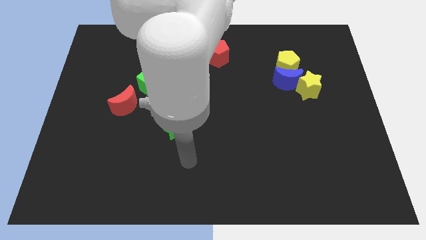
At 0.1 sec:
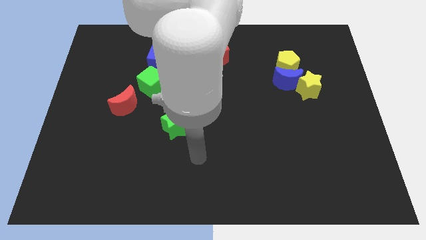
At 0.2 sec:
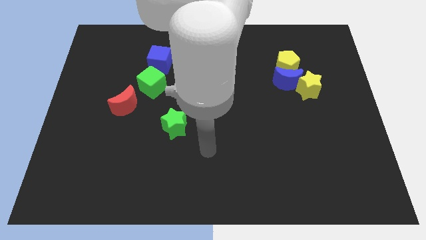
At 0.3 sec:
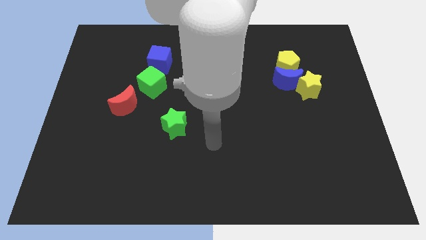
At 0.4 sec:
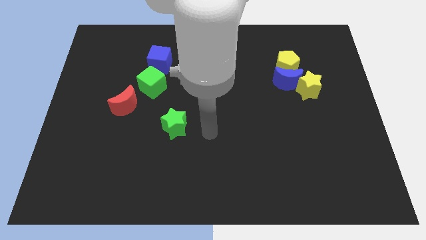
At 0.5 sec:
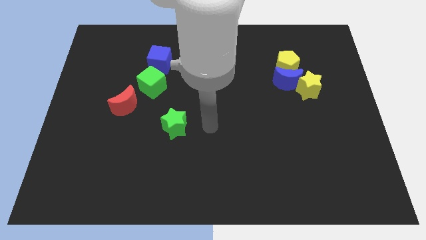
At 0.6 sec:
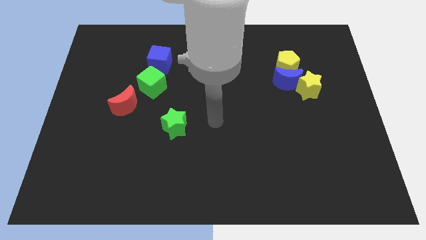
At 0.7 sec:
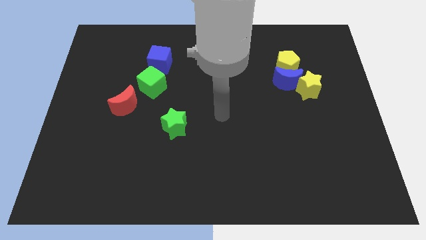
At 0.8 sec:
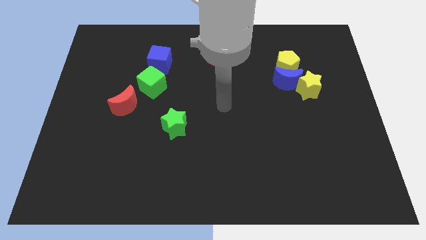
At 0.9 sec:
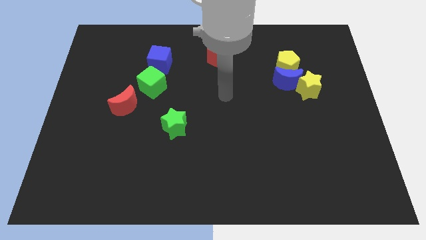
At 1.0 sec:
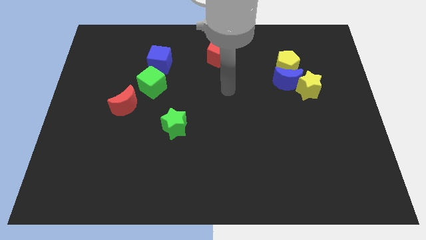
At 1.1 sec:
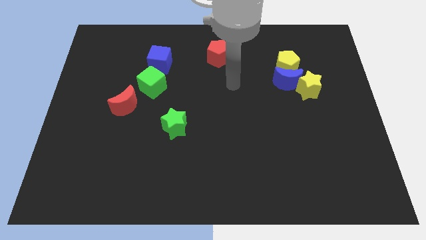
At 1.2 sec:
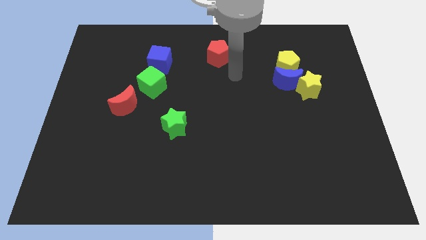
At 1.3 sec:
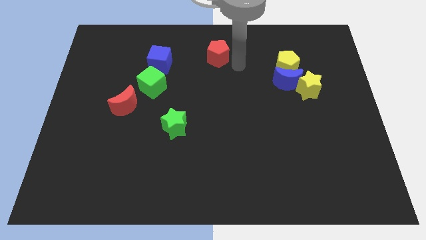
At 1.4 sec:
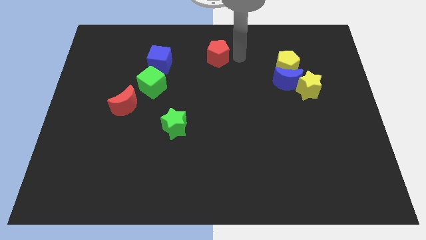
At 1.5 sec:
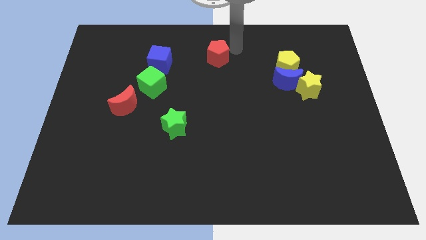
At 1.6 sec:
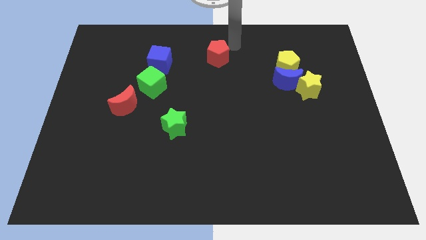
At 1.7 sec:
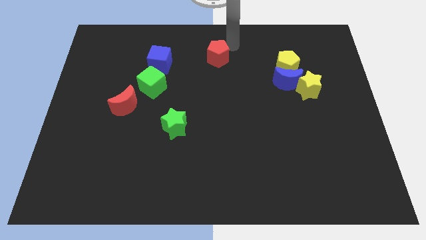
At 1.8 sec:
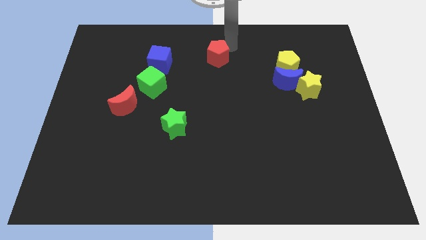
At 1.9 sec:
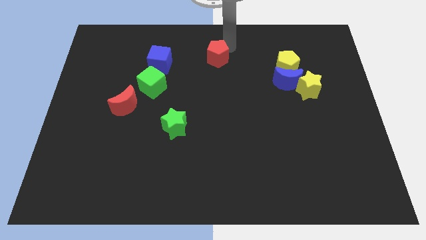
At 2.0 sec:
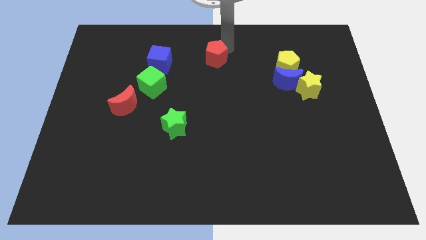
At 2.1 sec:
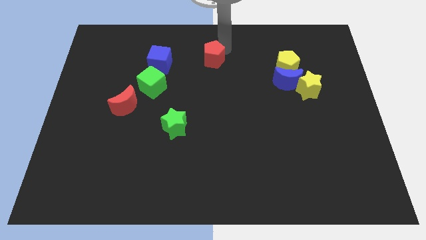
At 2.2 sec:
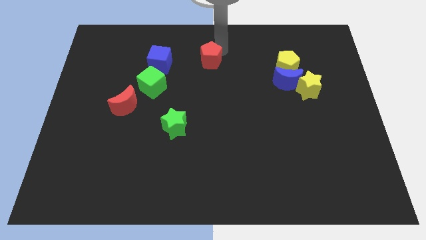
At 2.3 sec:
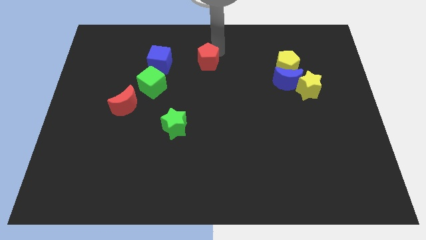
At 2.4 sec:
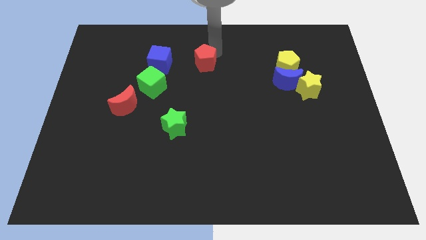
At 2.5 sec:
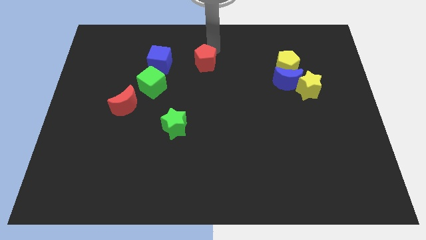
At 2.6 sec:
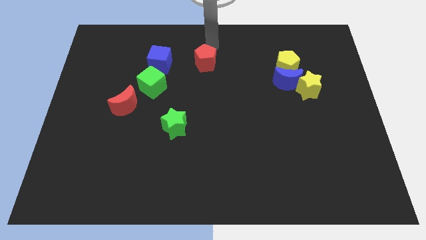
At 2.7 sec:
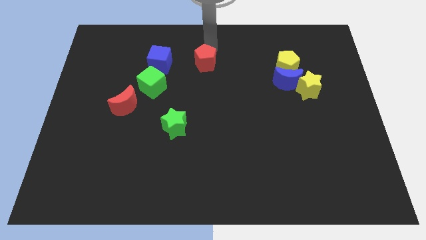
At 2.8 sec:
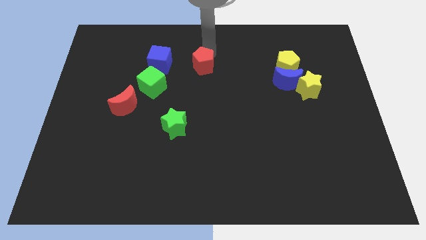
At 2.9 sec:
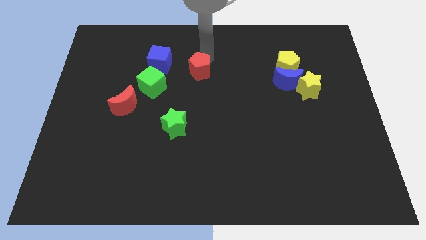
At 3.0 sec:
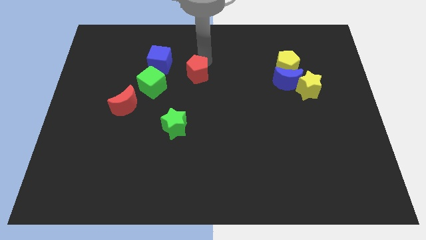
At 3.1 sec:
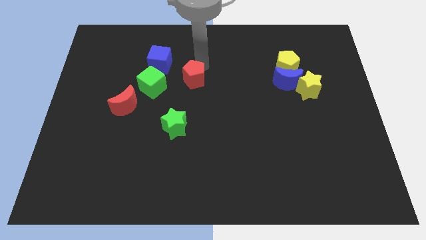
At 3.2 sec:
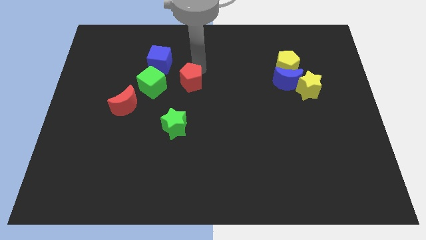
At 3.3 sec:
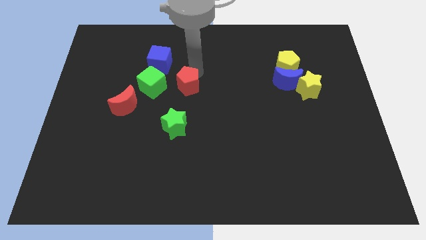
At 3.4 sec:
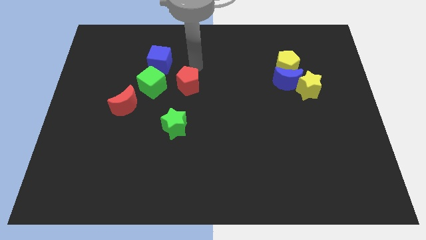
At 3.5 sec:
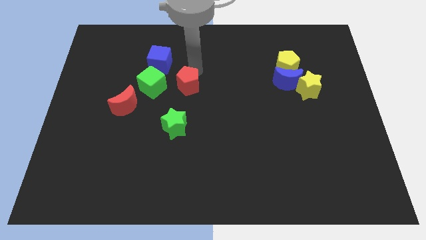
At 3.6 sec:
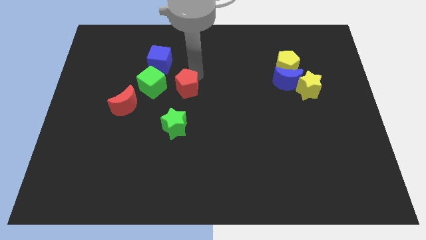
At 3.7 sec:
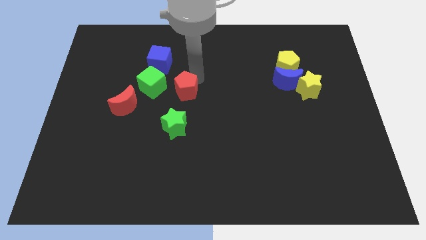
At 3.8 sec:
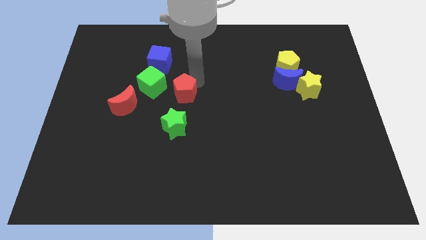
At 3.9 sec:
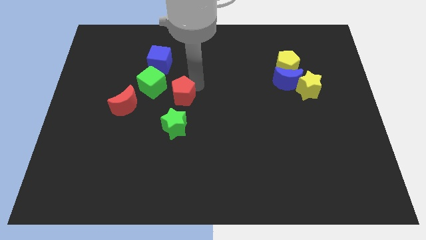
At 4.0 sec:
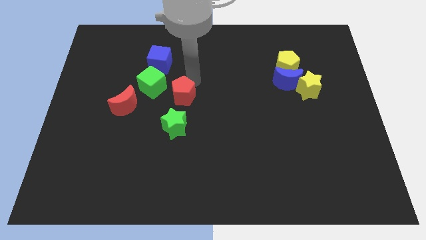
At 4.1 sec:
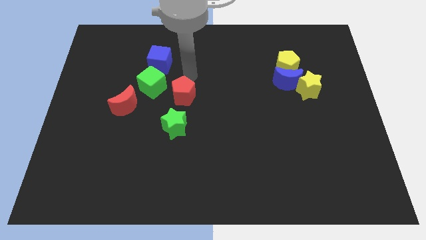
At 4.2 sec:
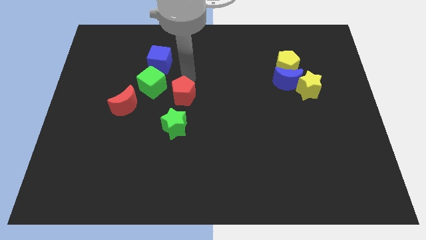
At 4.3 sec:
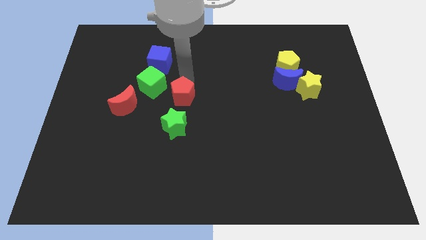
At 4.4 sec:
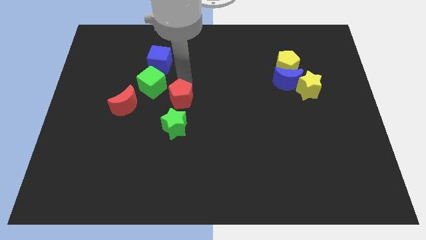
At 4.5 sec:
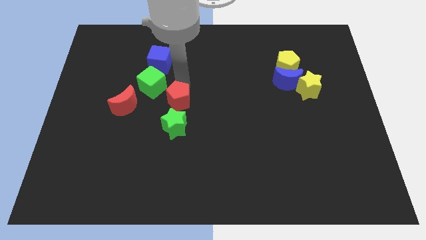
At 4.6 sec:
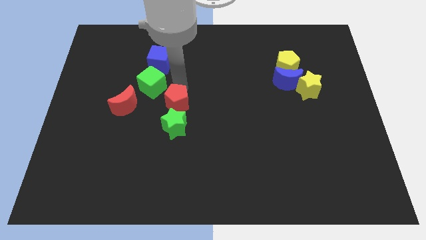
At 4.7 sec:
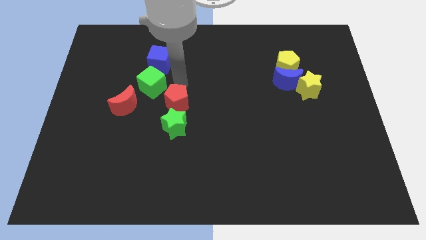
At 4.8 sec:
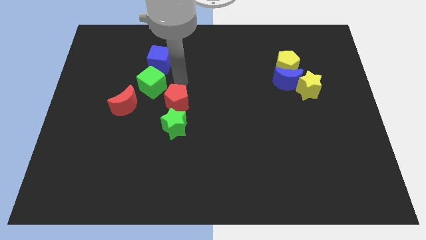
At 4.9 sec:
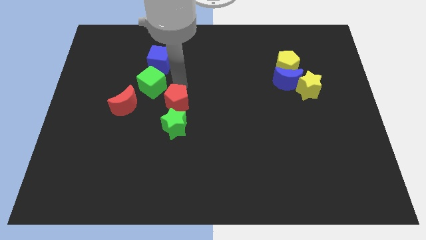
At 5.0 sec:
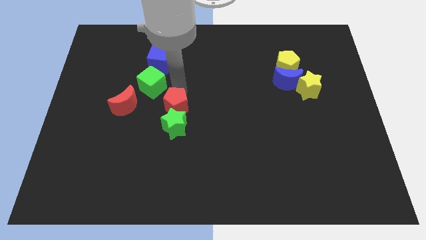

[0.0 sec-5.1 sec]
move the red pentagon to the green star

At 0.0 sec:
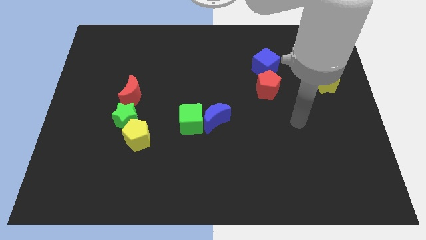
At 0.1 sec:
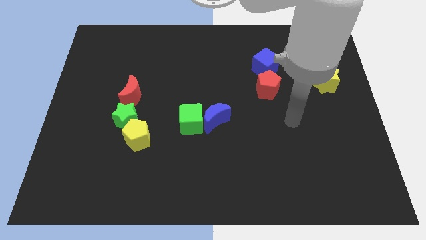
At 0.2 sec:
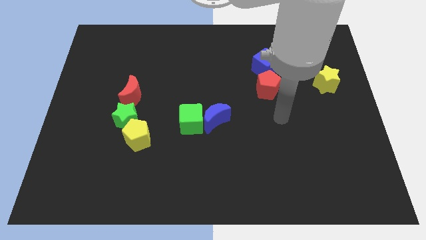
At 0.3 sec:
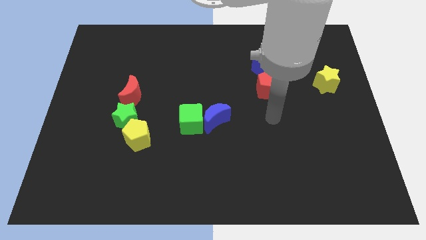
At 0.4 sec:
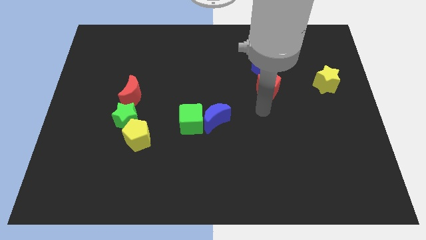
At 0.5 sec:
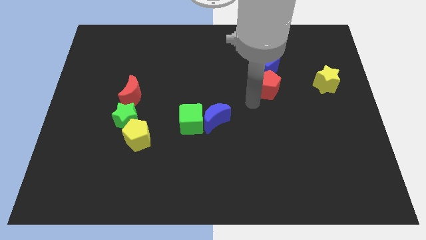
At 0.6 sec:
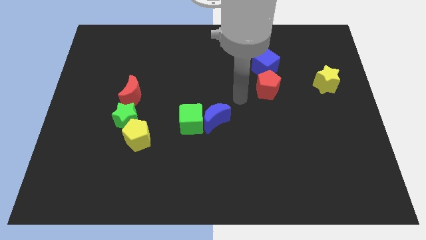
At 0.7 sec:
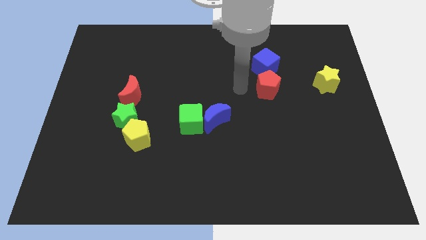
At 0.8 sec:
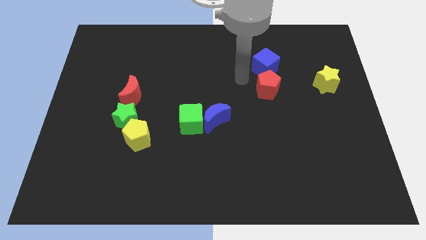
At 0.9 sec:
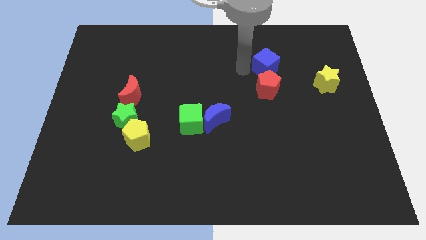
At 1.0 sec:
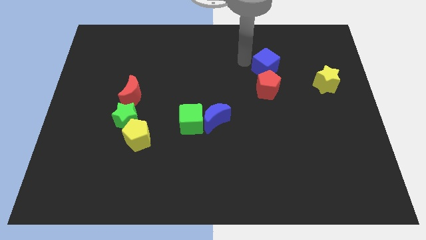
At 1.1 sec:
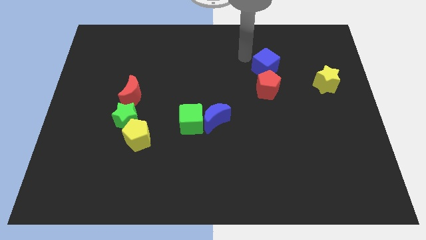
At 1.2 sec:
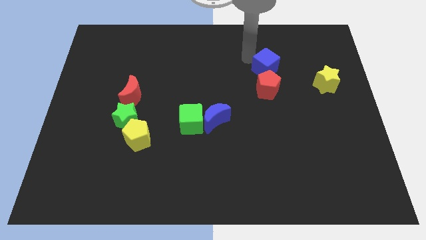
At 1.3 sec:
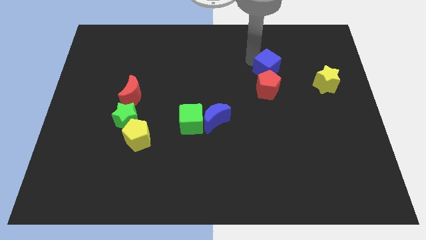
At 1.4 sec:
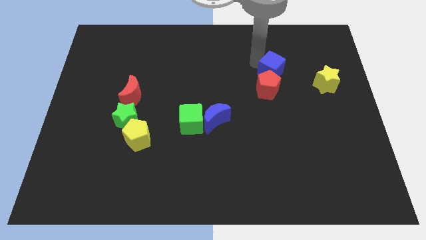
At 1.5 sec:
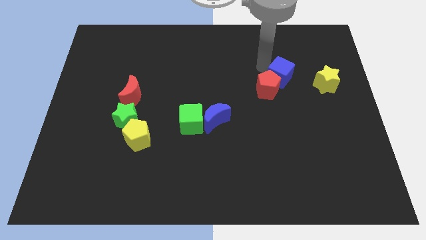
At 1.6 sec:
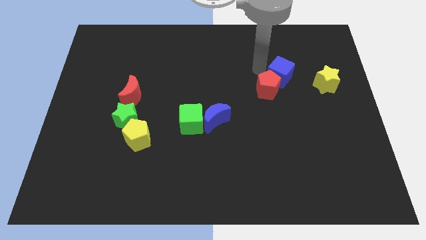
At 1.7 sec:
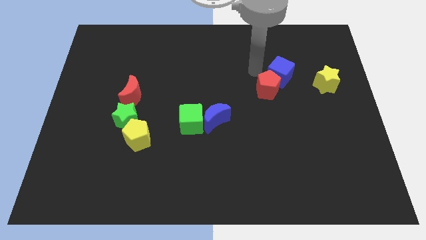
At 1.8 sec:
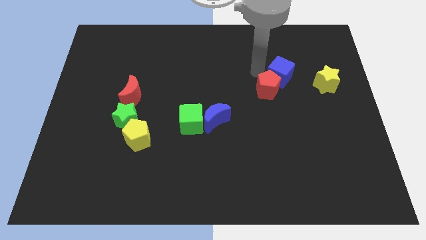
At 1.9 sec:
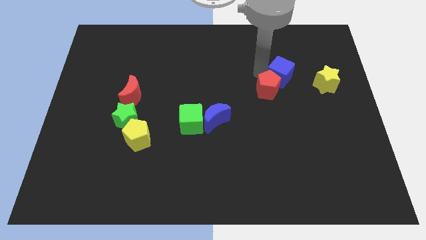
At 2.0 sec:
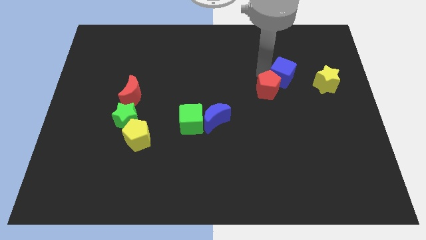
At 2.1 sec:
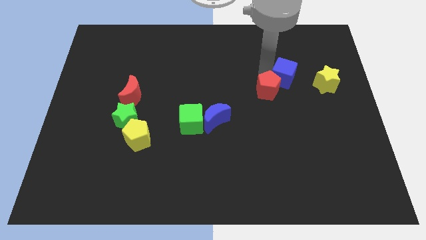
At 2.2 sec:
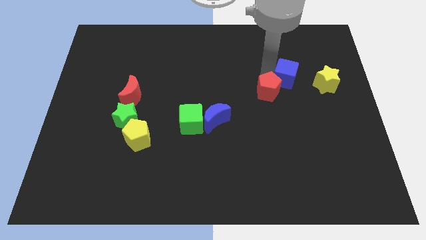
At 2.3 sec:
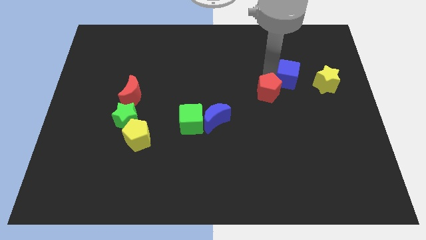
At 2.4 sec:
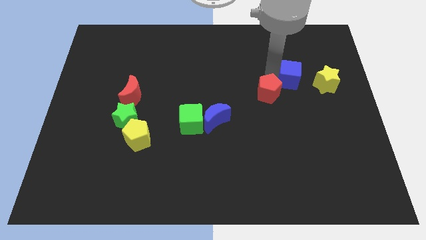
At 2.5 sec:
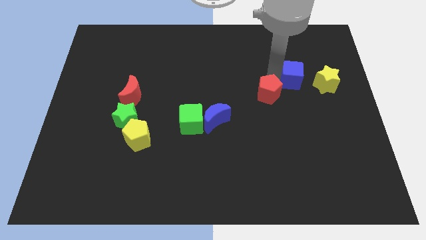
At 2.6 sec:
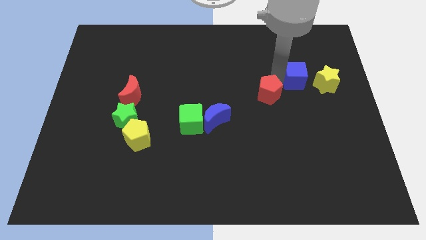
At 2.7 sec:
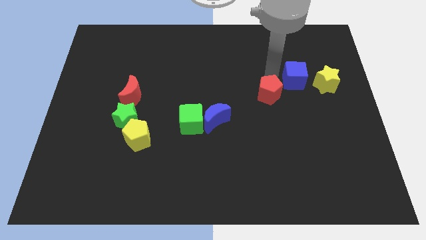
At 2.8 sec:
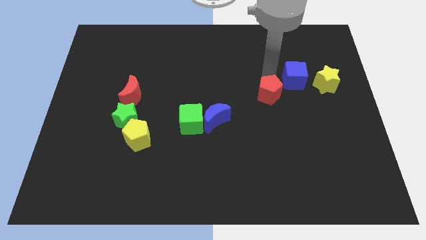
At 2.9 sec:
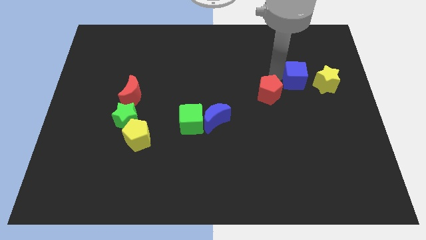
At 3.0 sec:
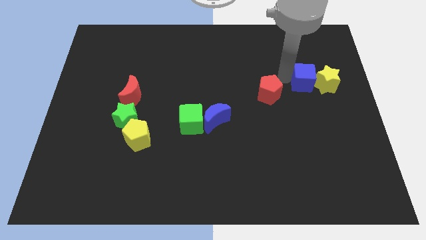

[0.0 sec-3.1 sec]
slide the blue cube close to the yellow star
